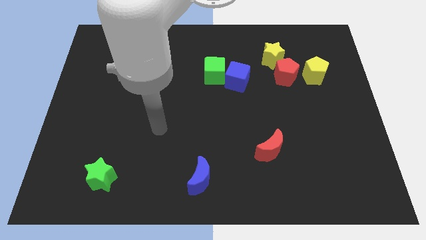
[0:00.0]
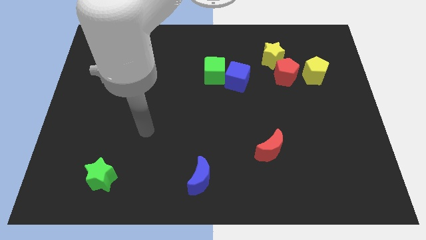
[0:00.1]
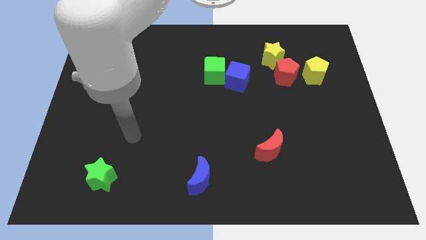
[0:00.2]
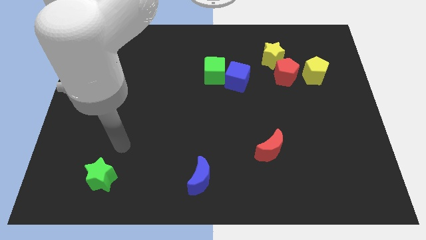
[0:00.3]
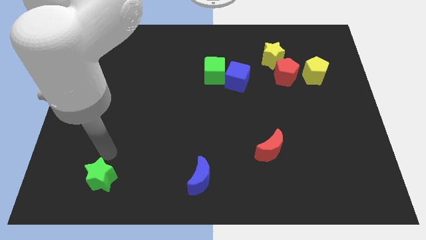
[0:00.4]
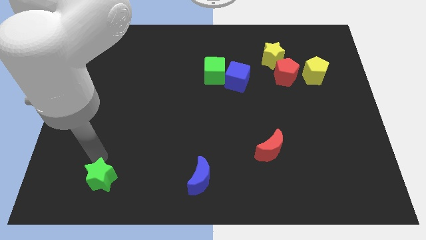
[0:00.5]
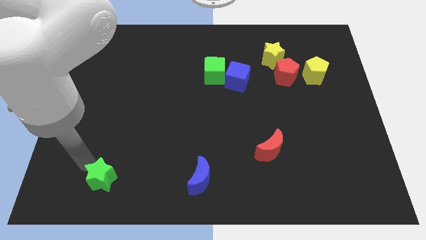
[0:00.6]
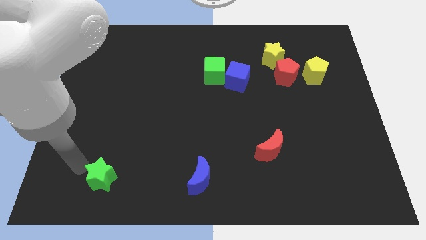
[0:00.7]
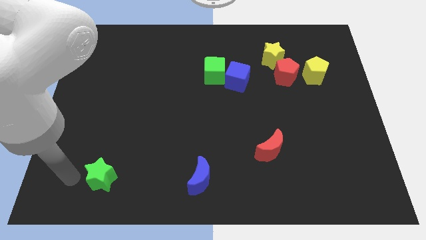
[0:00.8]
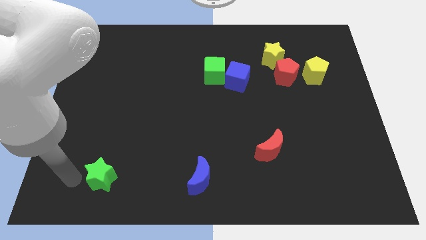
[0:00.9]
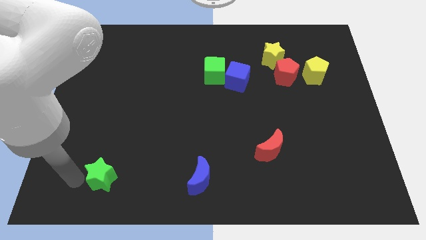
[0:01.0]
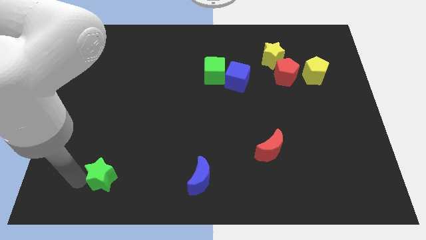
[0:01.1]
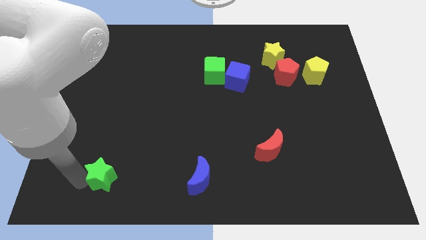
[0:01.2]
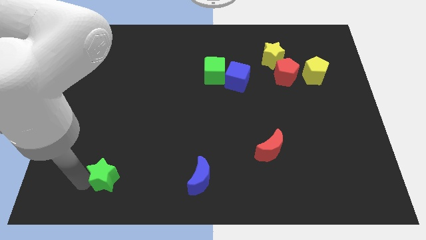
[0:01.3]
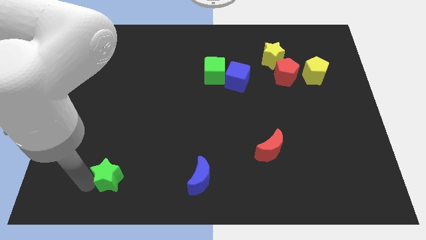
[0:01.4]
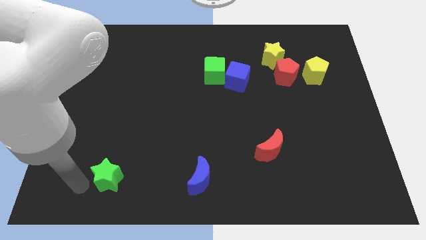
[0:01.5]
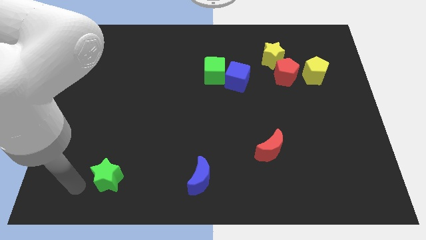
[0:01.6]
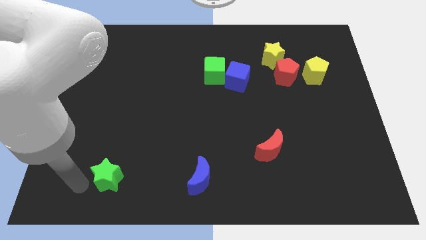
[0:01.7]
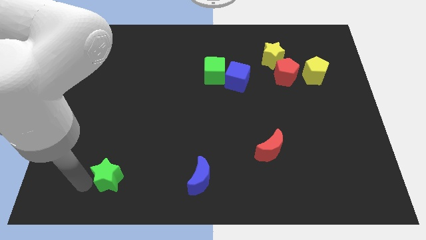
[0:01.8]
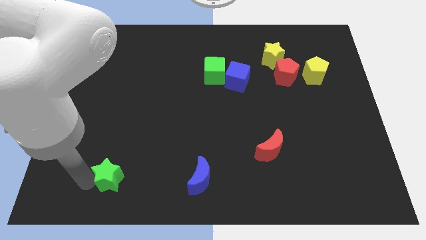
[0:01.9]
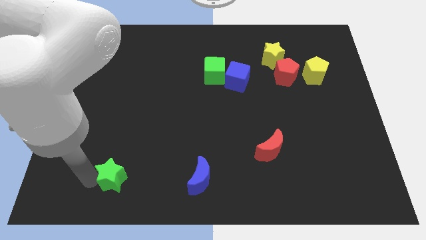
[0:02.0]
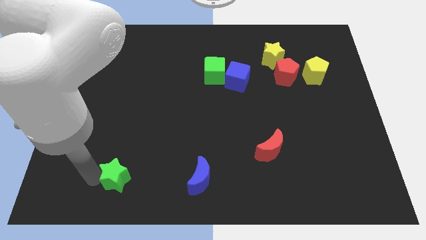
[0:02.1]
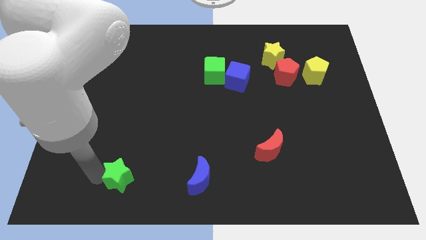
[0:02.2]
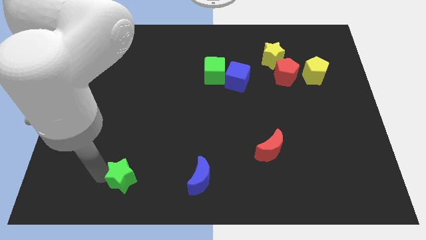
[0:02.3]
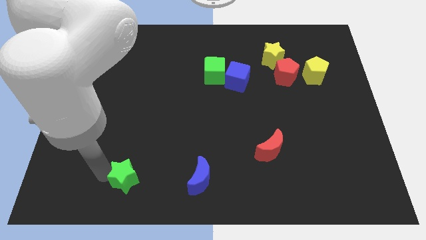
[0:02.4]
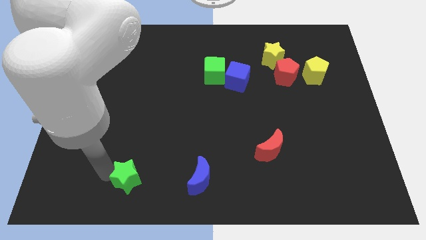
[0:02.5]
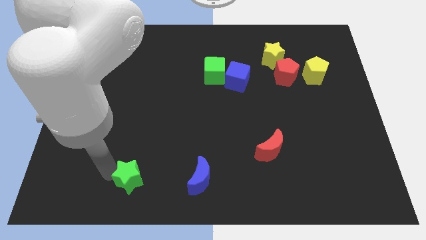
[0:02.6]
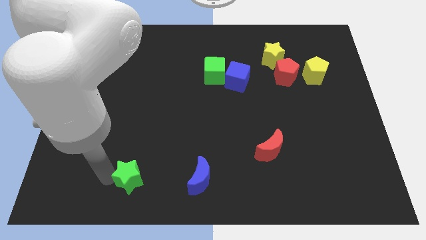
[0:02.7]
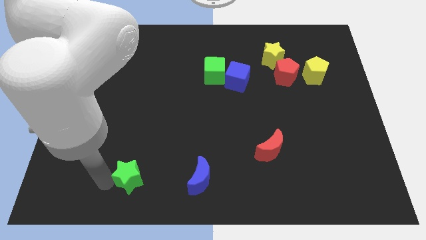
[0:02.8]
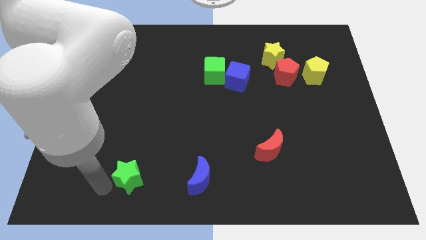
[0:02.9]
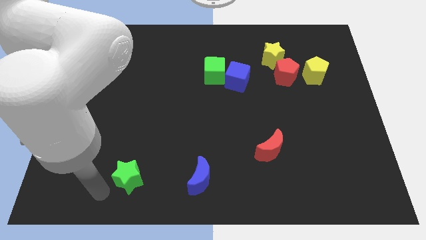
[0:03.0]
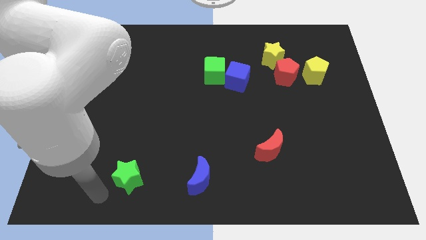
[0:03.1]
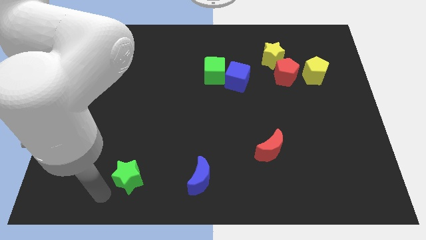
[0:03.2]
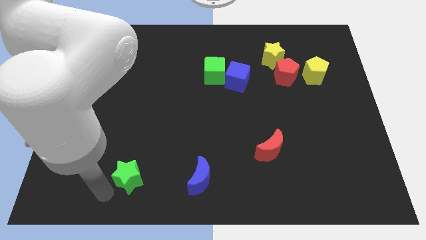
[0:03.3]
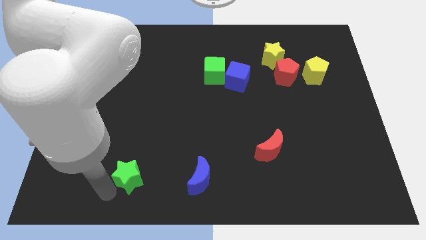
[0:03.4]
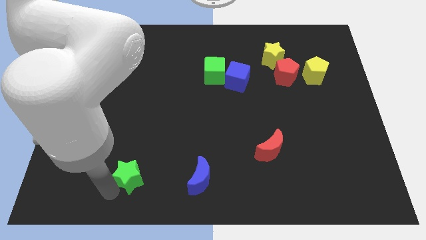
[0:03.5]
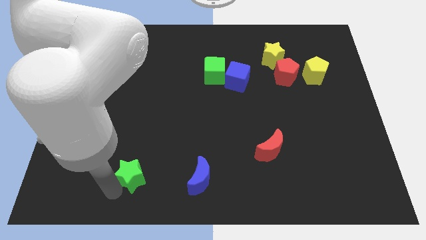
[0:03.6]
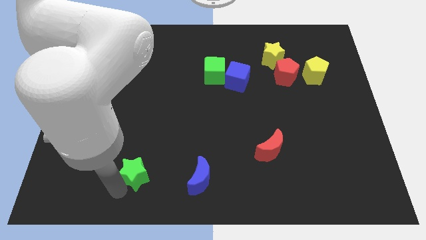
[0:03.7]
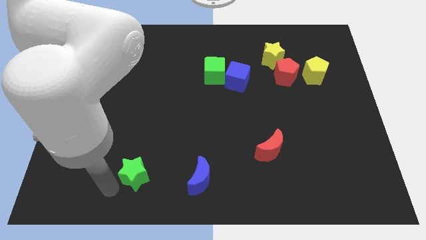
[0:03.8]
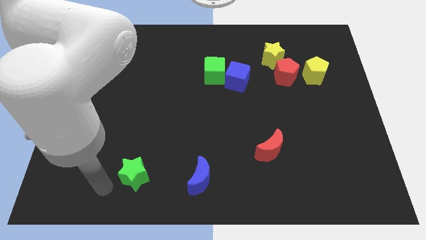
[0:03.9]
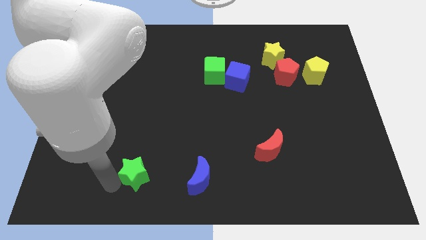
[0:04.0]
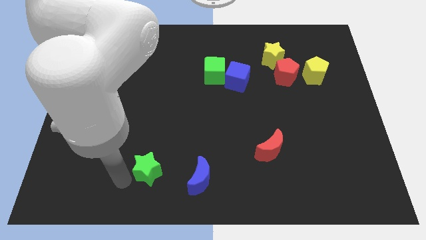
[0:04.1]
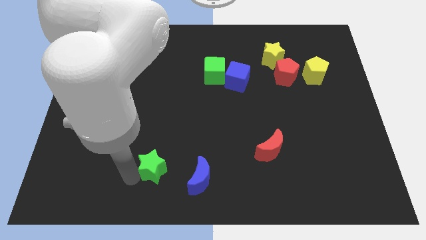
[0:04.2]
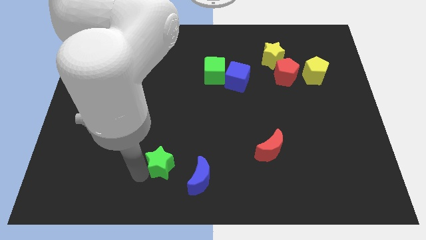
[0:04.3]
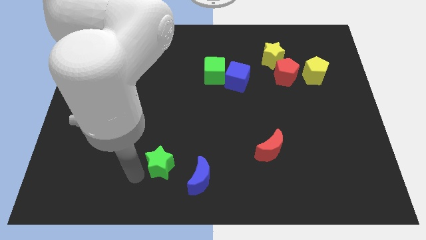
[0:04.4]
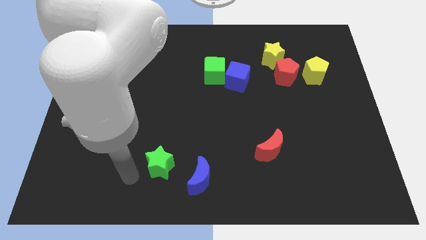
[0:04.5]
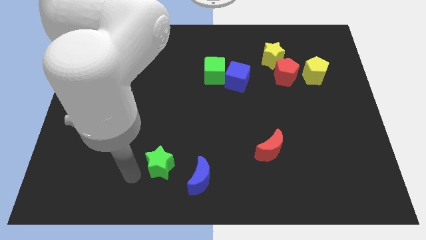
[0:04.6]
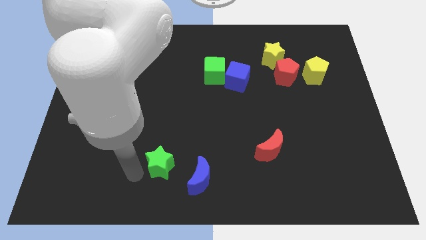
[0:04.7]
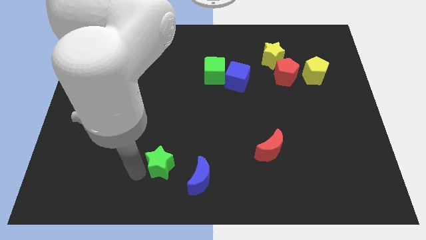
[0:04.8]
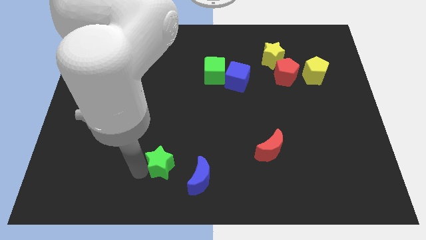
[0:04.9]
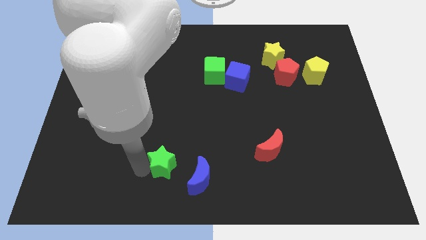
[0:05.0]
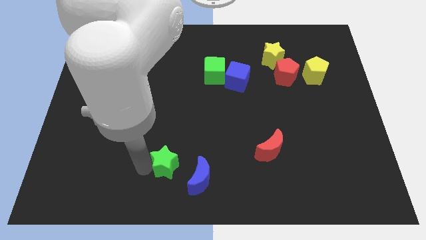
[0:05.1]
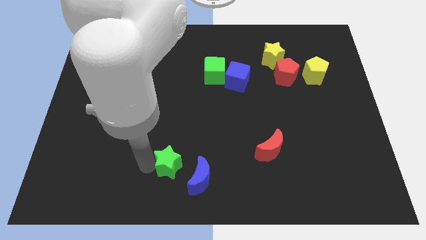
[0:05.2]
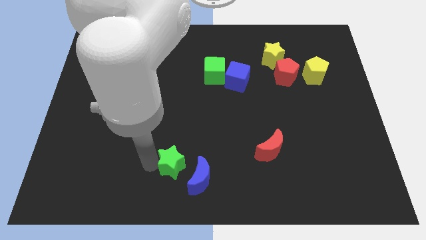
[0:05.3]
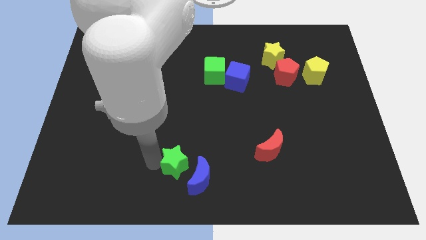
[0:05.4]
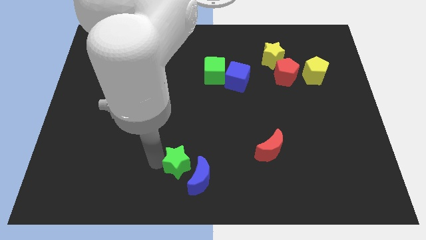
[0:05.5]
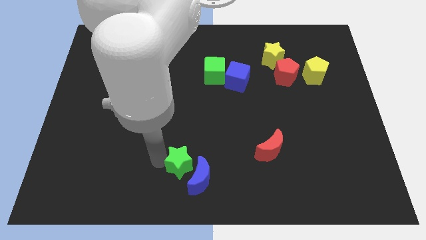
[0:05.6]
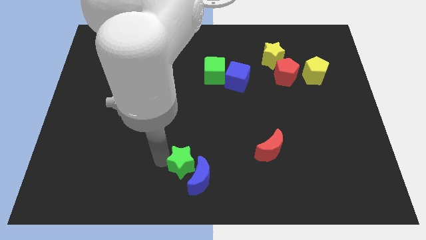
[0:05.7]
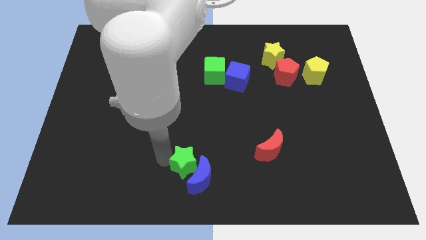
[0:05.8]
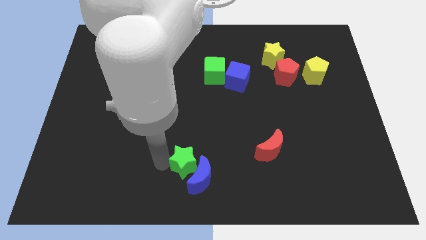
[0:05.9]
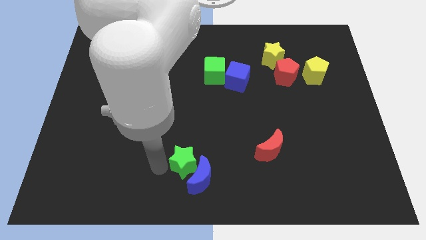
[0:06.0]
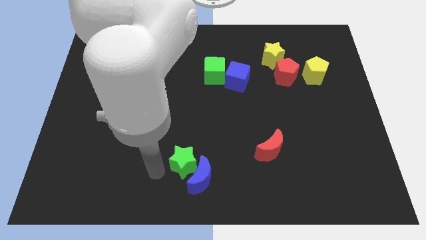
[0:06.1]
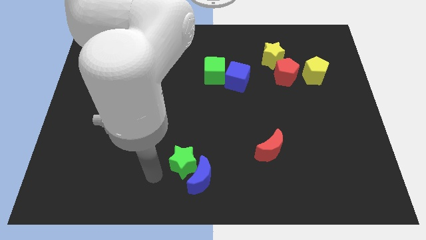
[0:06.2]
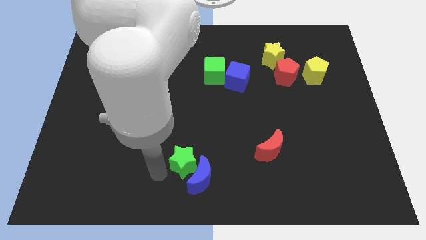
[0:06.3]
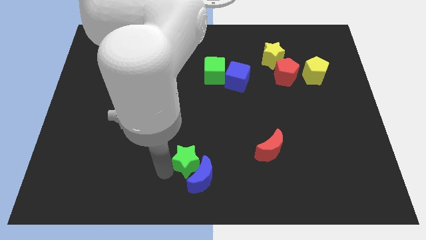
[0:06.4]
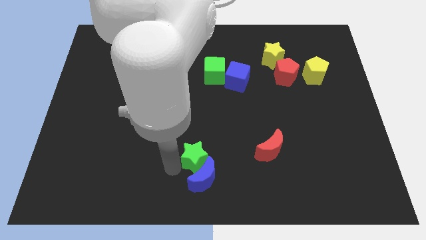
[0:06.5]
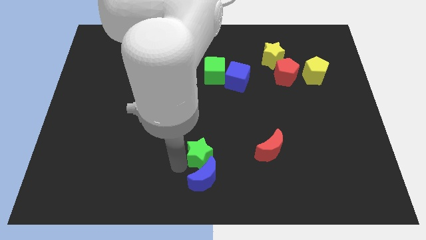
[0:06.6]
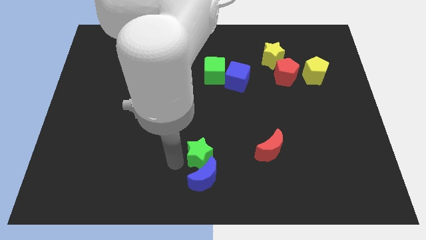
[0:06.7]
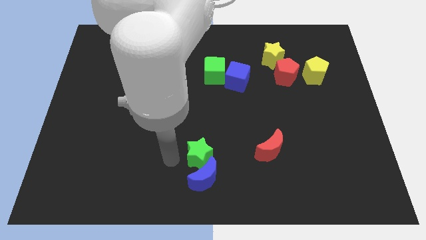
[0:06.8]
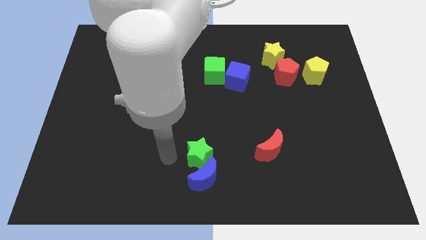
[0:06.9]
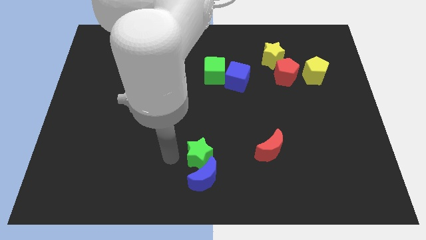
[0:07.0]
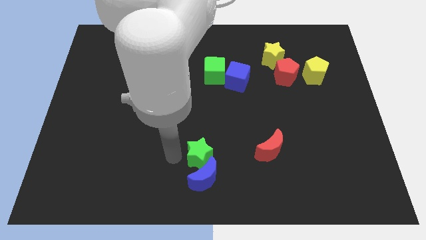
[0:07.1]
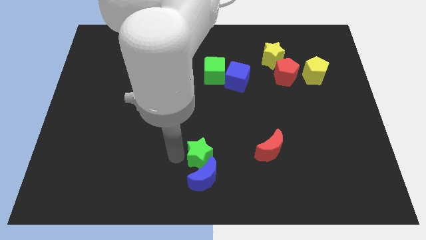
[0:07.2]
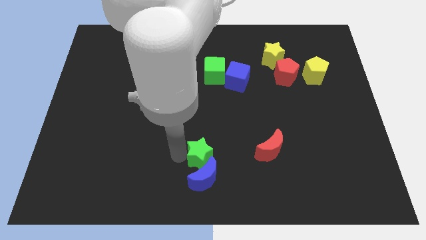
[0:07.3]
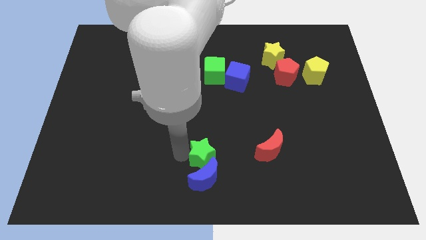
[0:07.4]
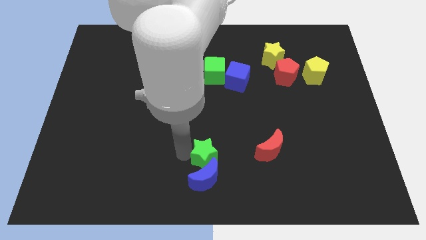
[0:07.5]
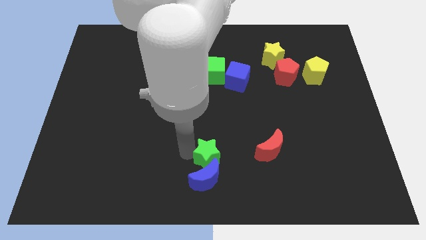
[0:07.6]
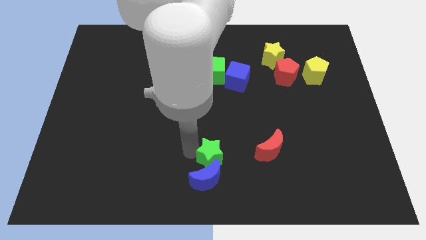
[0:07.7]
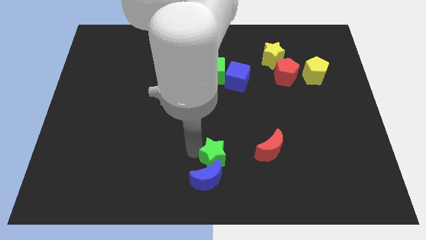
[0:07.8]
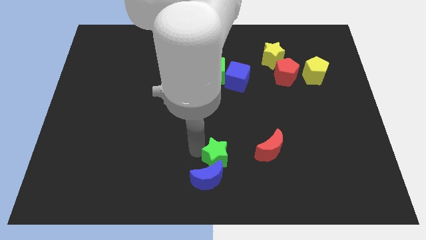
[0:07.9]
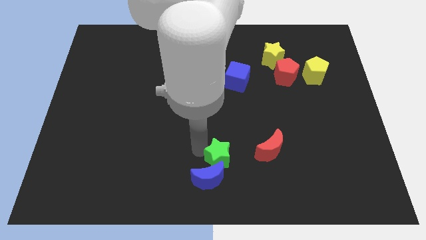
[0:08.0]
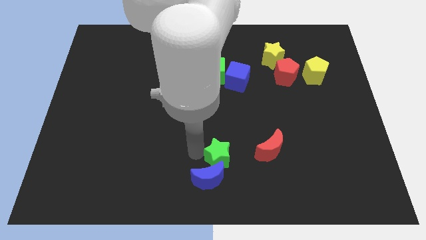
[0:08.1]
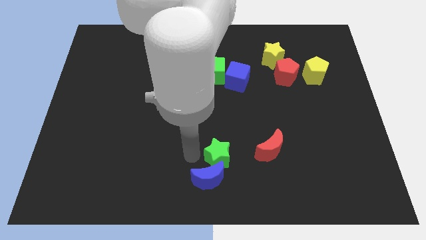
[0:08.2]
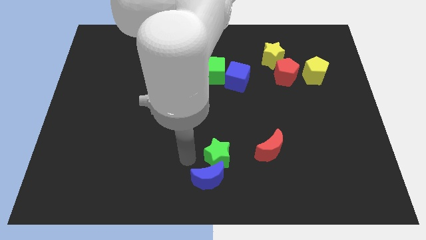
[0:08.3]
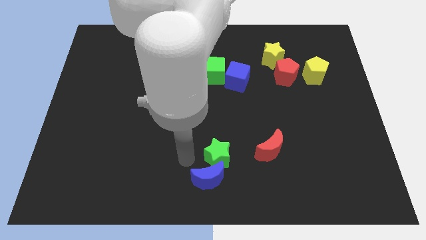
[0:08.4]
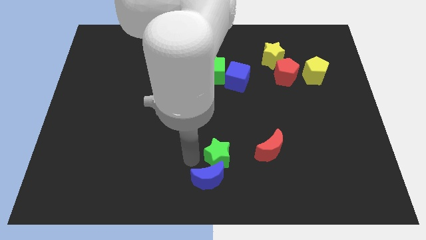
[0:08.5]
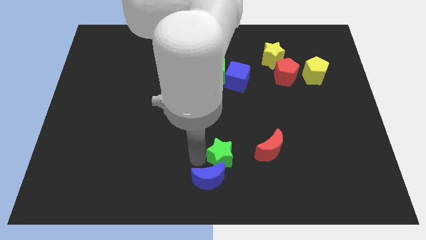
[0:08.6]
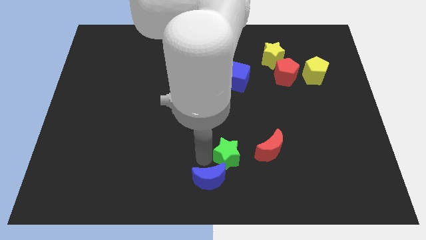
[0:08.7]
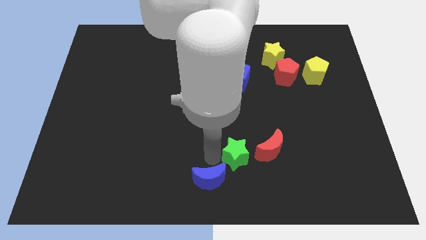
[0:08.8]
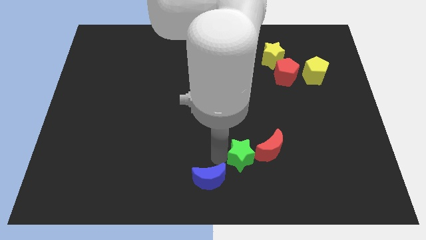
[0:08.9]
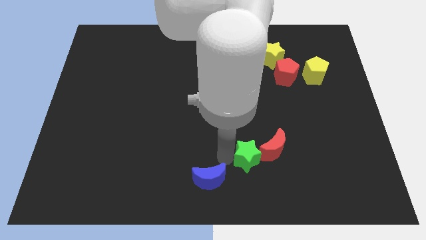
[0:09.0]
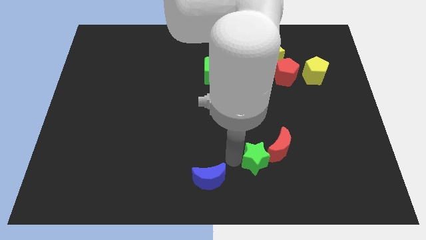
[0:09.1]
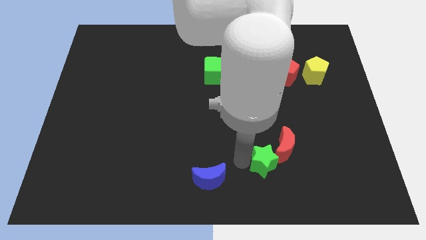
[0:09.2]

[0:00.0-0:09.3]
put the green star close to the red moon
